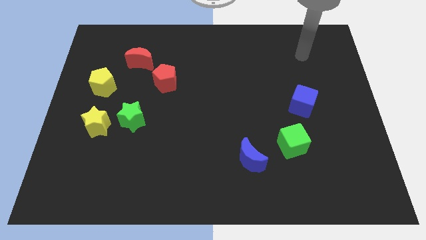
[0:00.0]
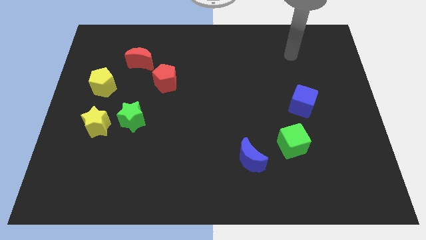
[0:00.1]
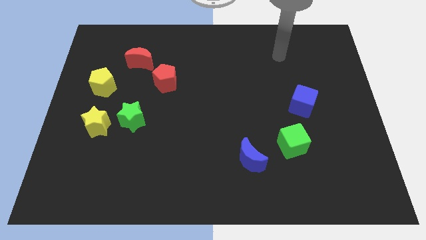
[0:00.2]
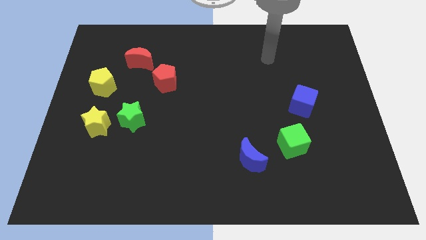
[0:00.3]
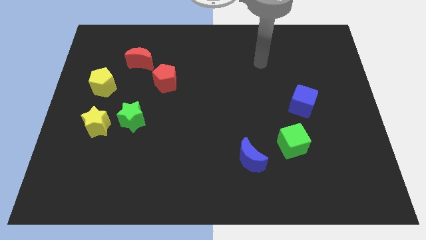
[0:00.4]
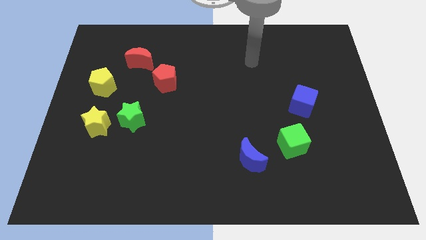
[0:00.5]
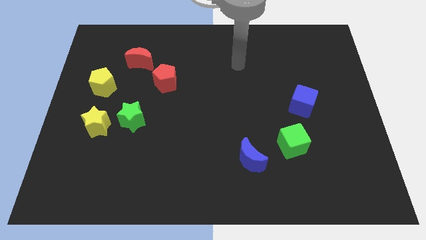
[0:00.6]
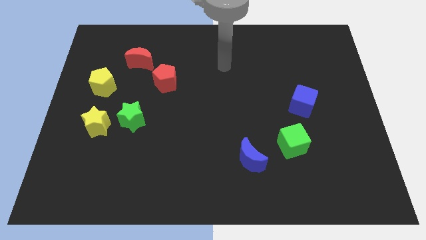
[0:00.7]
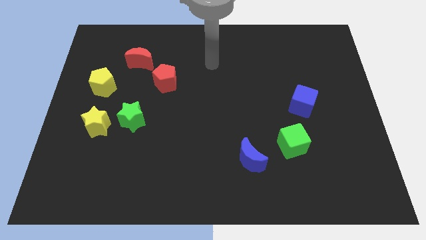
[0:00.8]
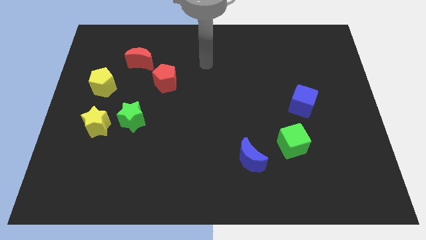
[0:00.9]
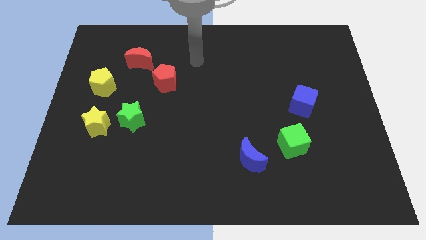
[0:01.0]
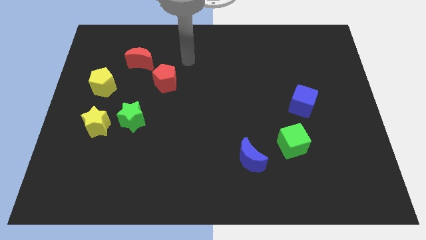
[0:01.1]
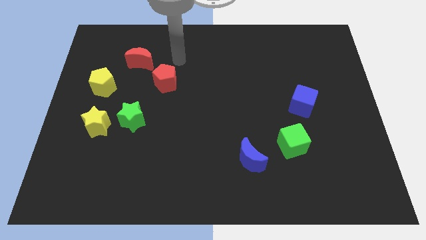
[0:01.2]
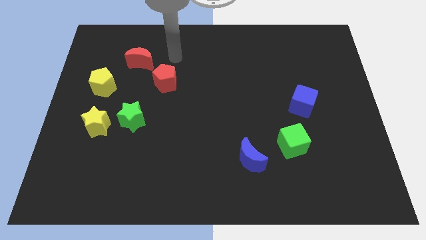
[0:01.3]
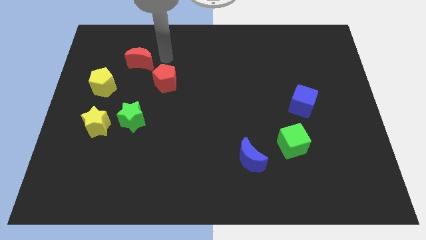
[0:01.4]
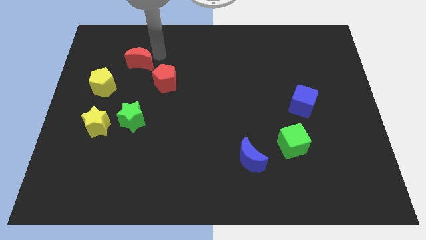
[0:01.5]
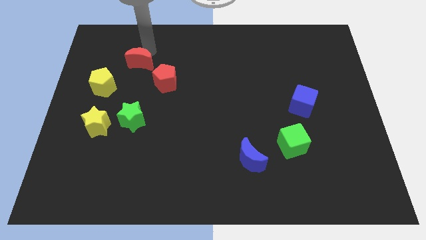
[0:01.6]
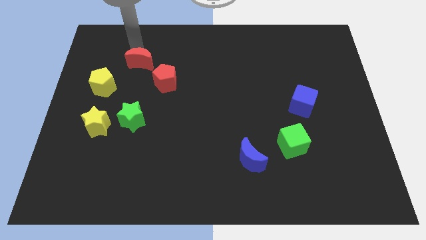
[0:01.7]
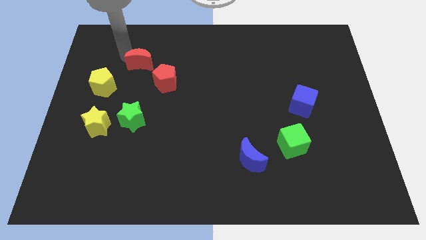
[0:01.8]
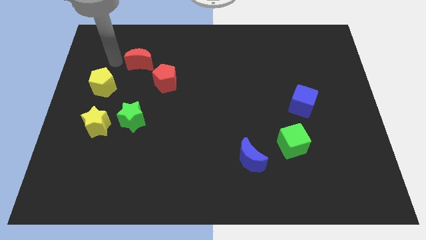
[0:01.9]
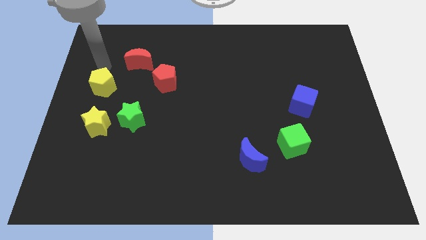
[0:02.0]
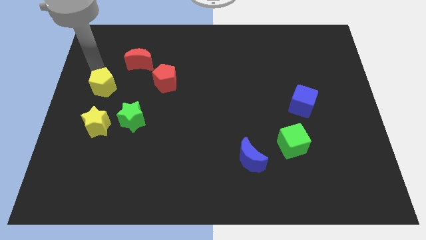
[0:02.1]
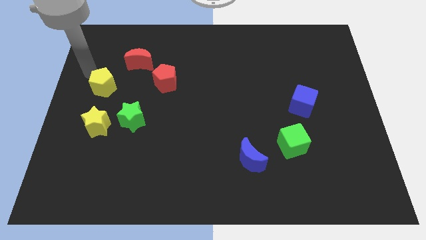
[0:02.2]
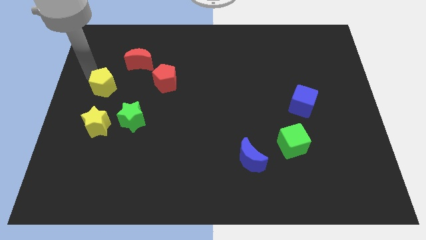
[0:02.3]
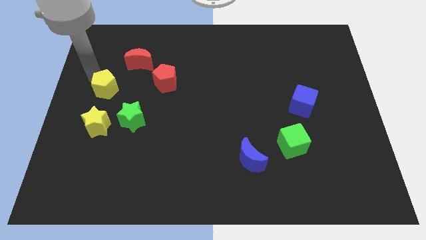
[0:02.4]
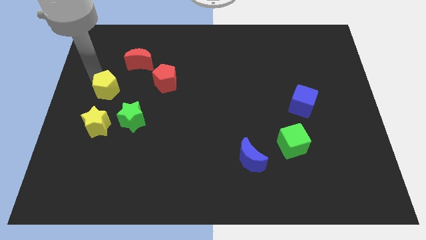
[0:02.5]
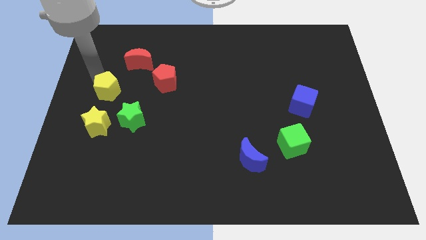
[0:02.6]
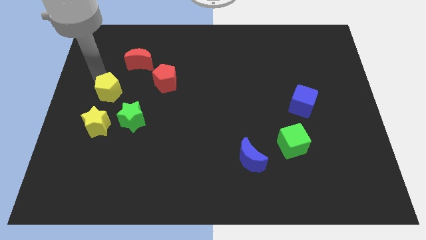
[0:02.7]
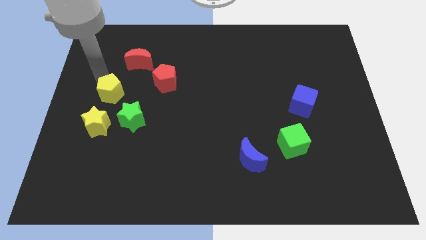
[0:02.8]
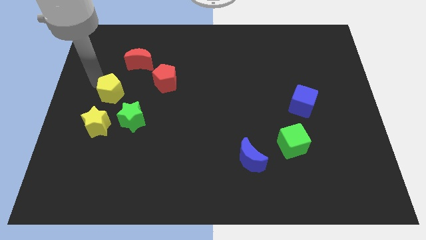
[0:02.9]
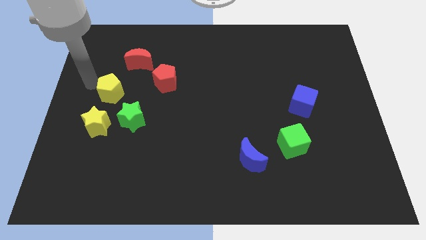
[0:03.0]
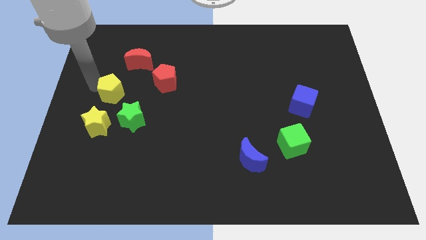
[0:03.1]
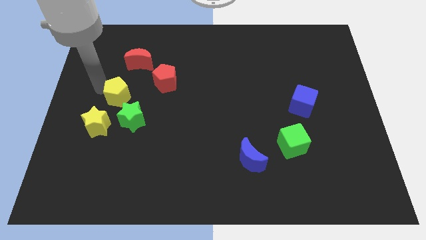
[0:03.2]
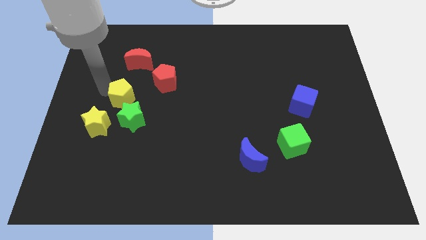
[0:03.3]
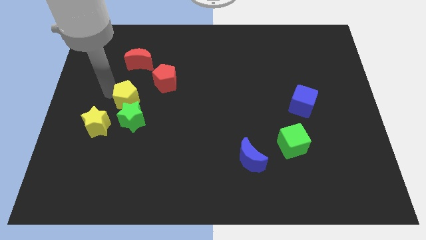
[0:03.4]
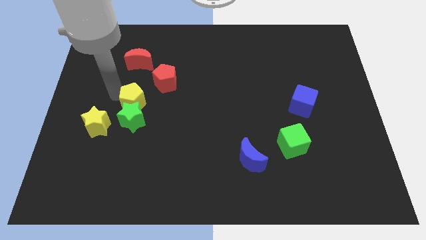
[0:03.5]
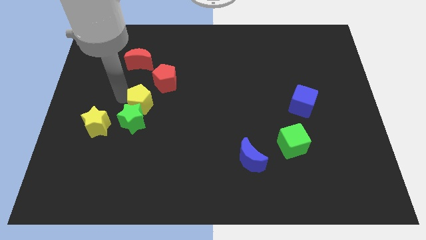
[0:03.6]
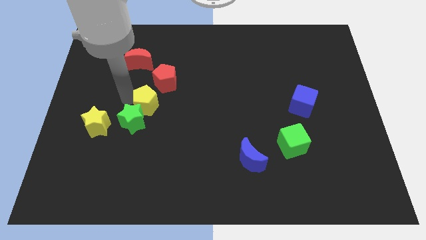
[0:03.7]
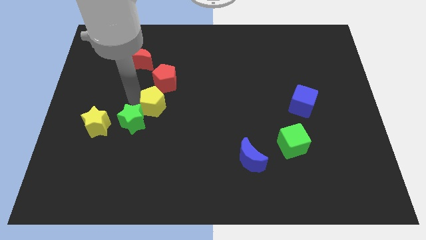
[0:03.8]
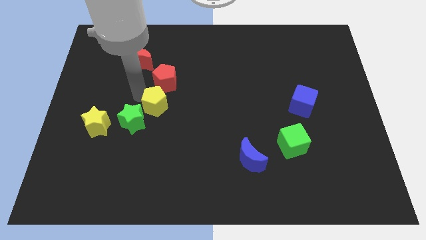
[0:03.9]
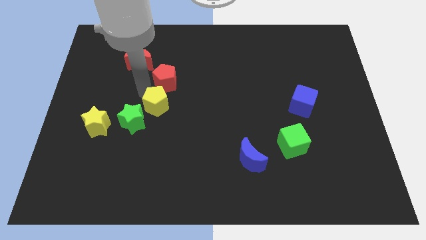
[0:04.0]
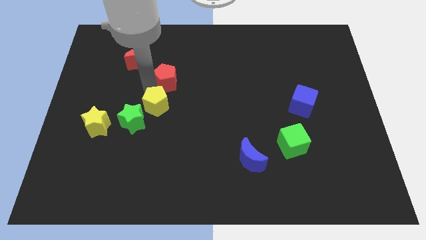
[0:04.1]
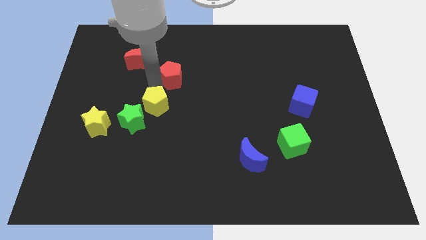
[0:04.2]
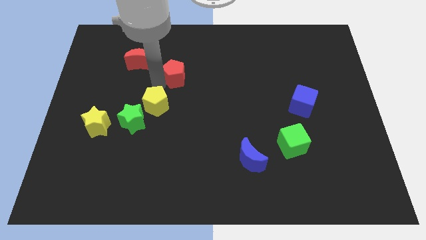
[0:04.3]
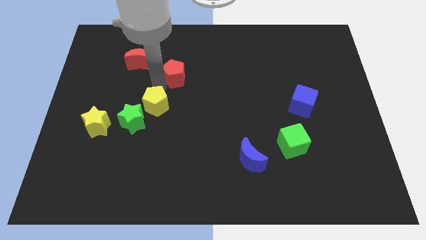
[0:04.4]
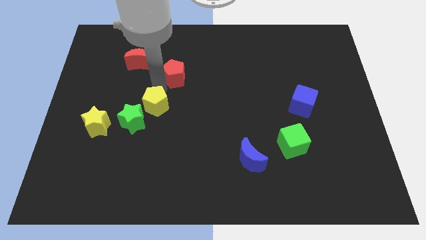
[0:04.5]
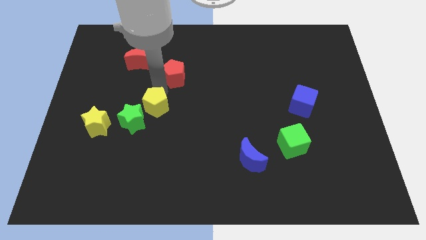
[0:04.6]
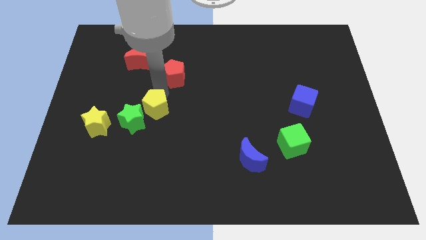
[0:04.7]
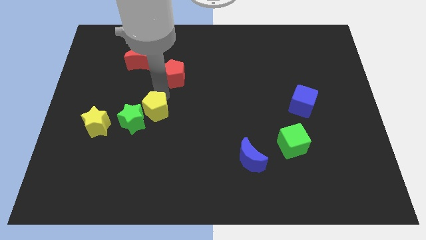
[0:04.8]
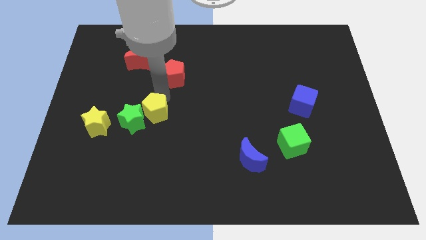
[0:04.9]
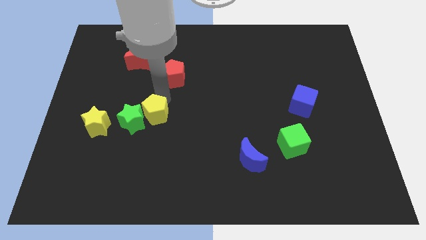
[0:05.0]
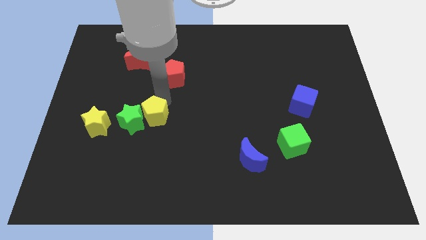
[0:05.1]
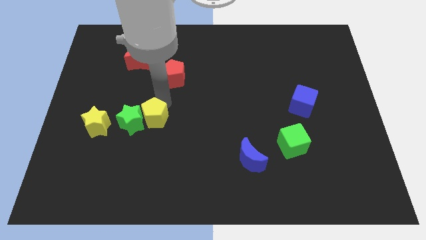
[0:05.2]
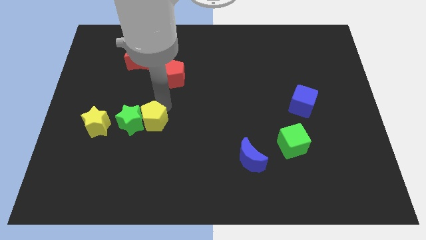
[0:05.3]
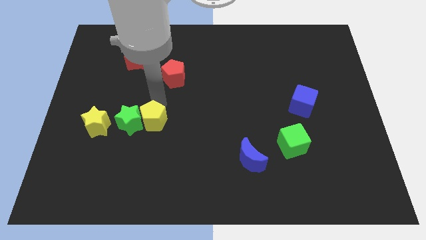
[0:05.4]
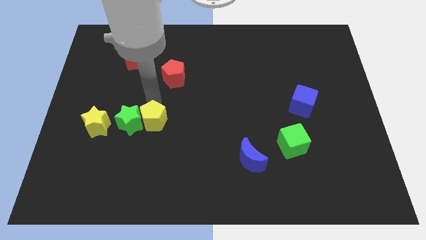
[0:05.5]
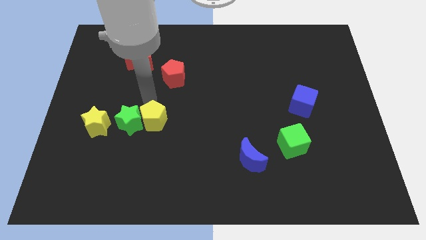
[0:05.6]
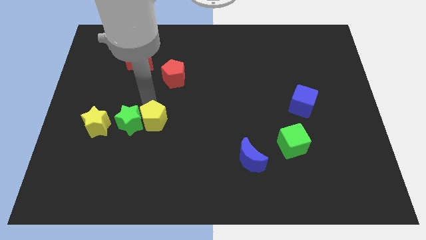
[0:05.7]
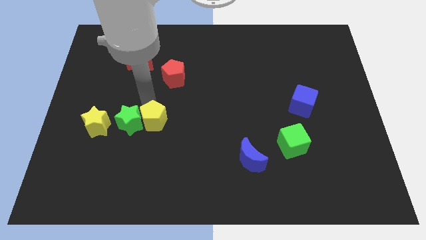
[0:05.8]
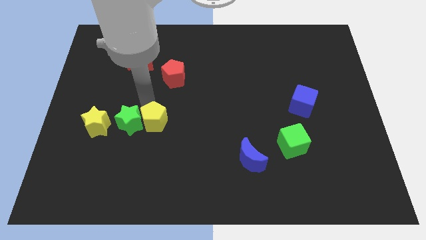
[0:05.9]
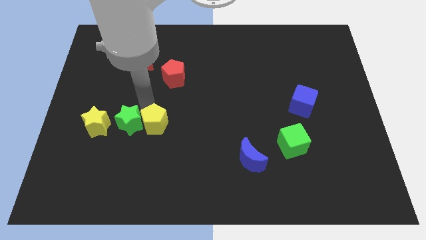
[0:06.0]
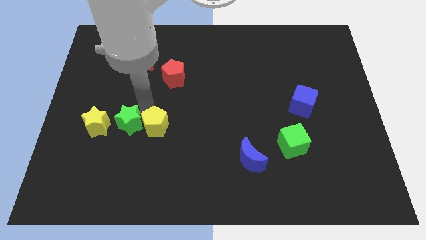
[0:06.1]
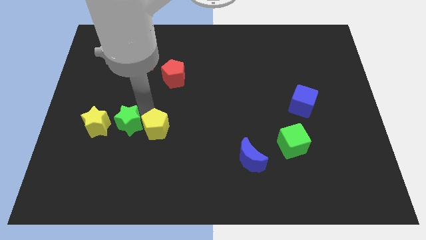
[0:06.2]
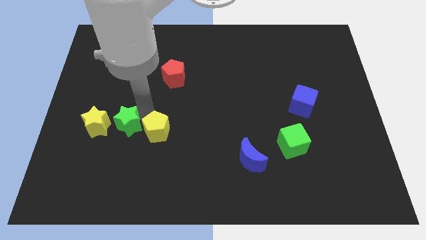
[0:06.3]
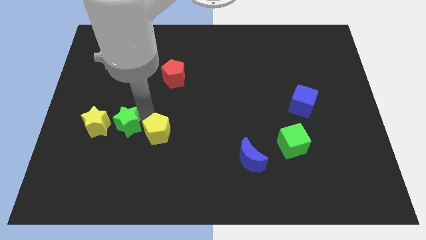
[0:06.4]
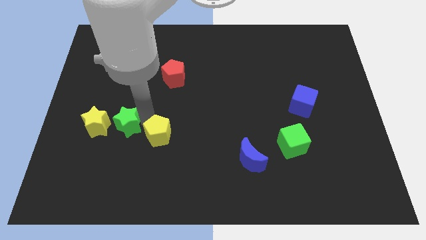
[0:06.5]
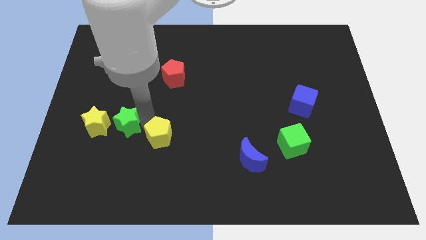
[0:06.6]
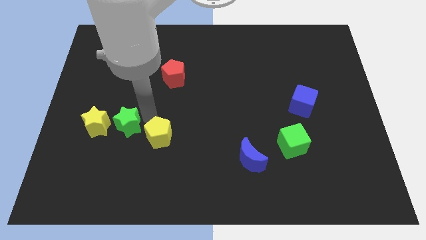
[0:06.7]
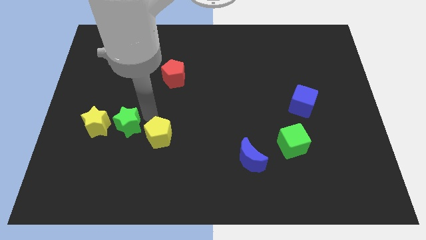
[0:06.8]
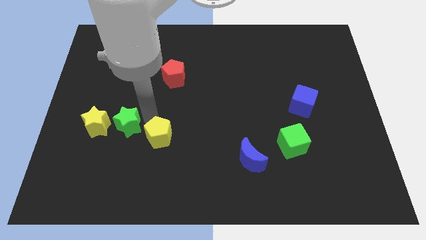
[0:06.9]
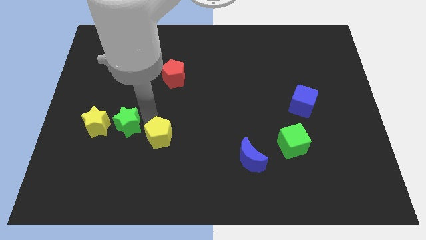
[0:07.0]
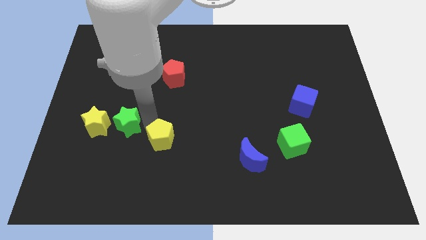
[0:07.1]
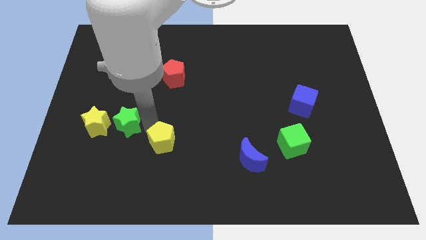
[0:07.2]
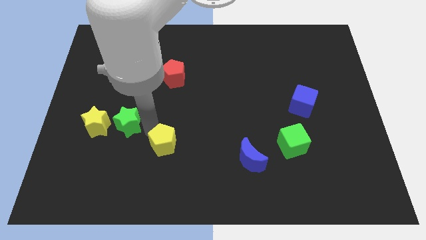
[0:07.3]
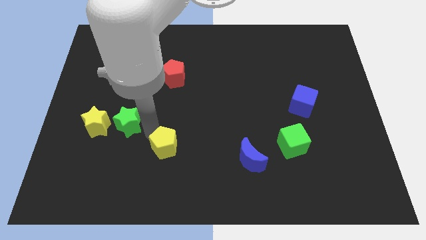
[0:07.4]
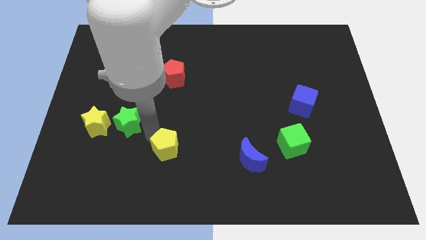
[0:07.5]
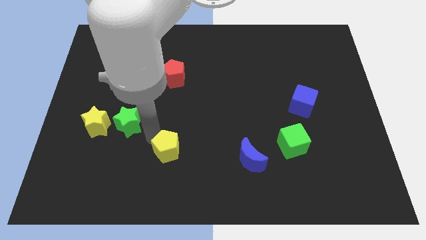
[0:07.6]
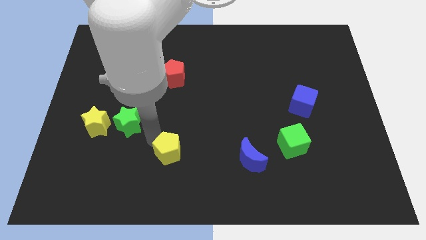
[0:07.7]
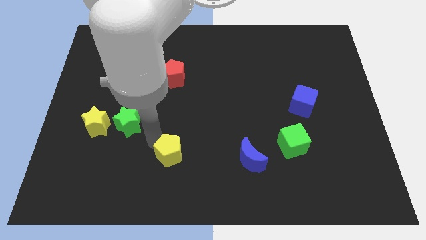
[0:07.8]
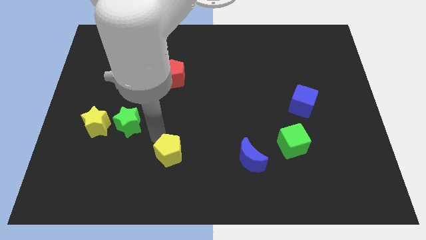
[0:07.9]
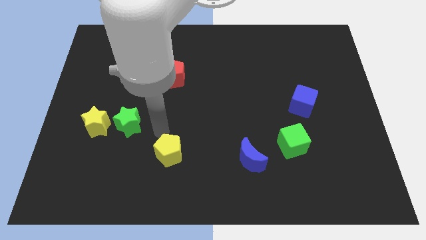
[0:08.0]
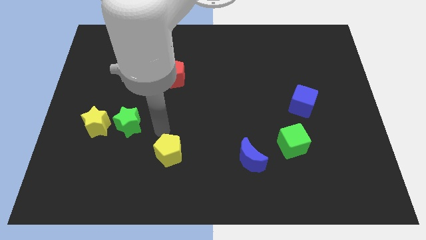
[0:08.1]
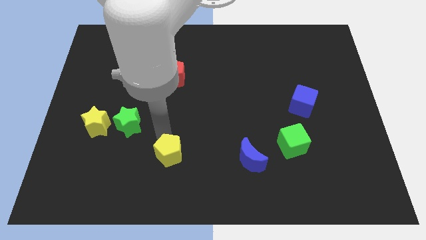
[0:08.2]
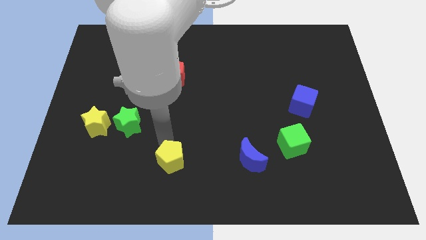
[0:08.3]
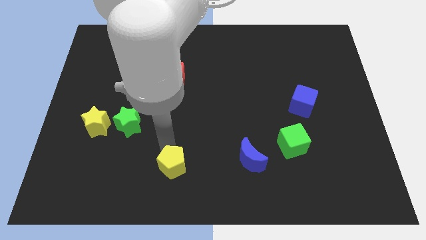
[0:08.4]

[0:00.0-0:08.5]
put the yellow pentagon to the bottom side
